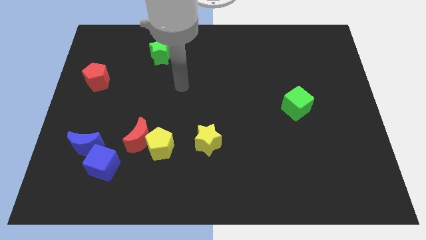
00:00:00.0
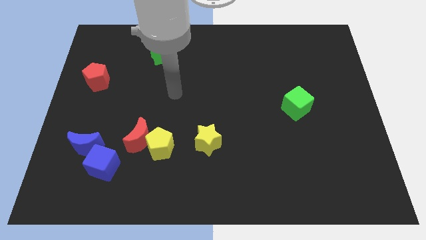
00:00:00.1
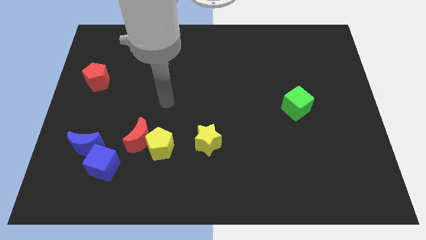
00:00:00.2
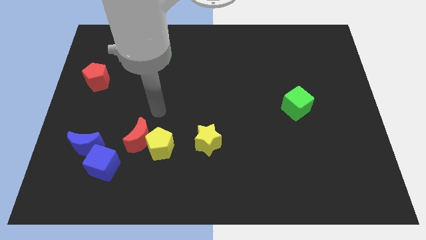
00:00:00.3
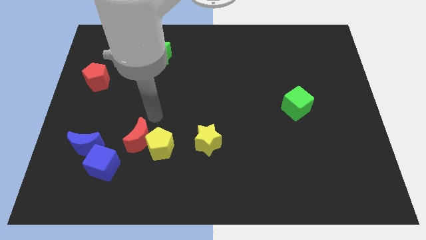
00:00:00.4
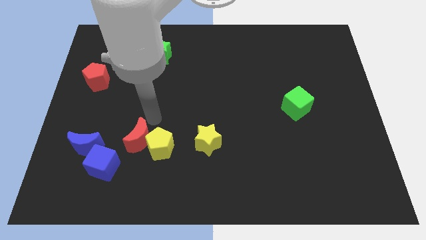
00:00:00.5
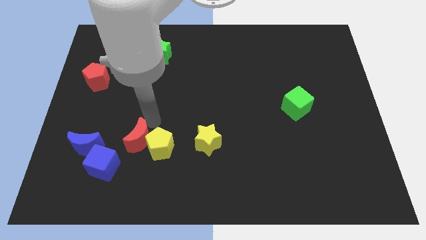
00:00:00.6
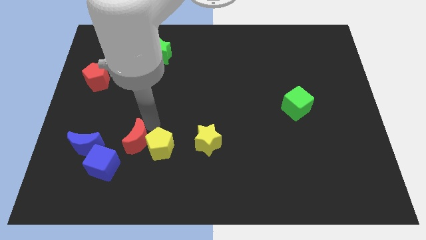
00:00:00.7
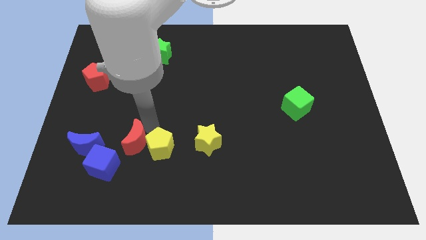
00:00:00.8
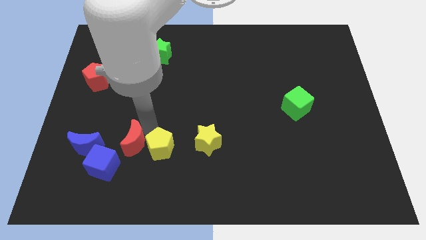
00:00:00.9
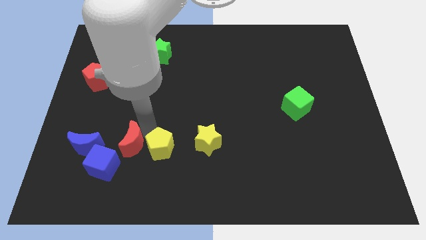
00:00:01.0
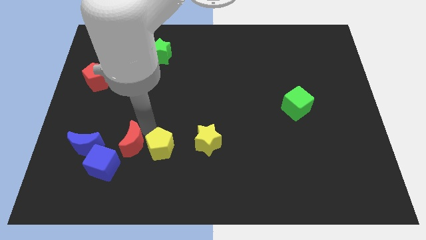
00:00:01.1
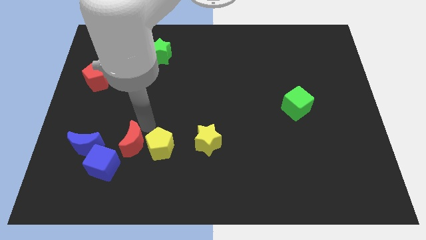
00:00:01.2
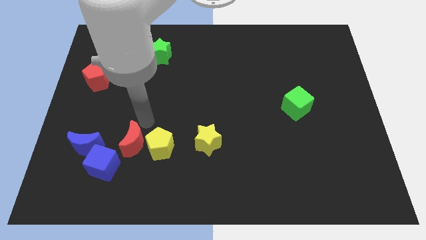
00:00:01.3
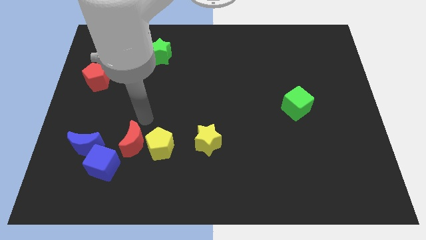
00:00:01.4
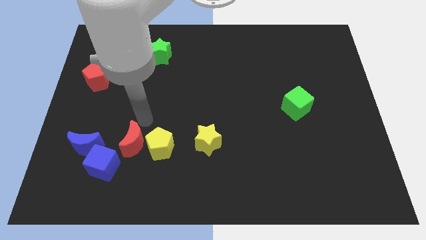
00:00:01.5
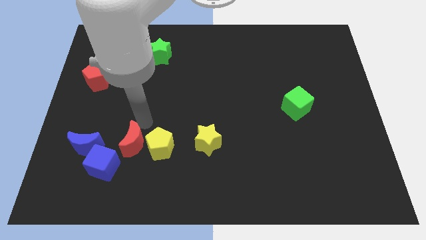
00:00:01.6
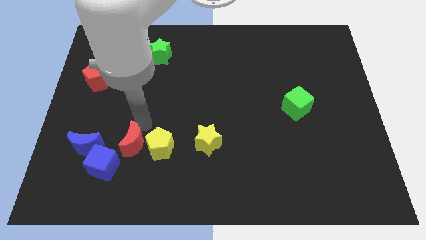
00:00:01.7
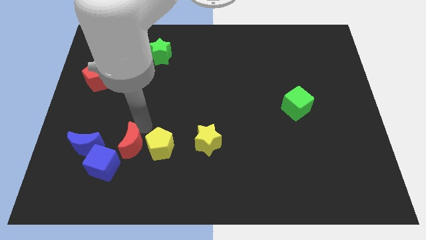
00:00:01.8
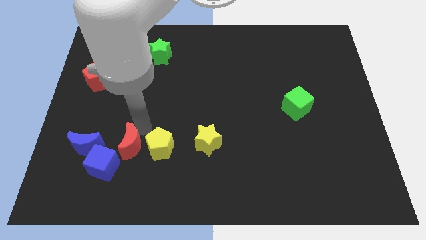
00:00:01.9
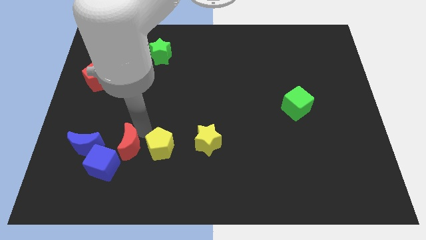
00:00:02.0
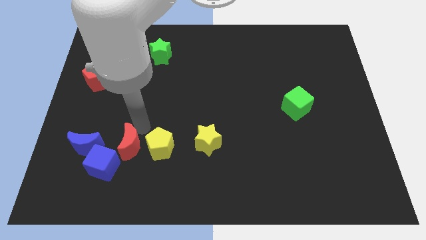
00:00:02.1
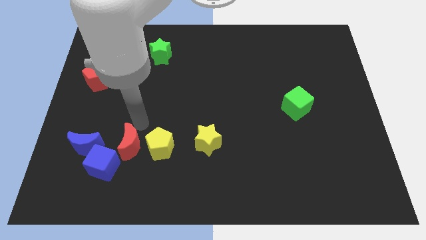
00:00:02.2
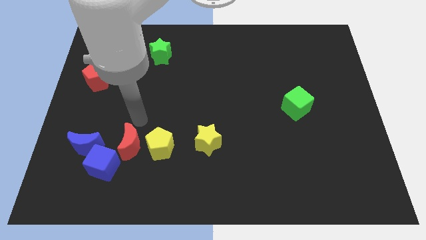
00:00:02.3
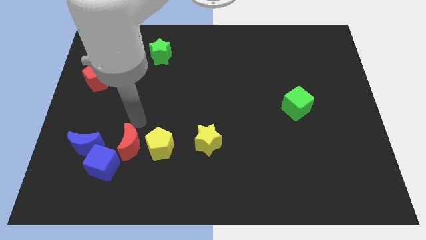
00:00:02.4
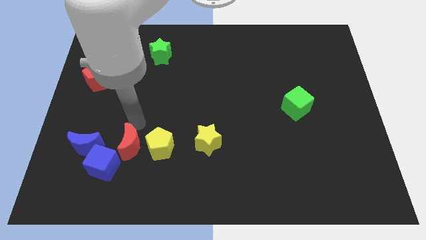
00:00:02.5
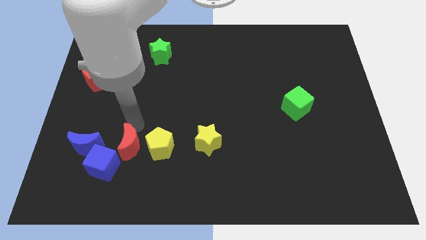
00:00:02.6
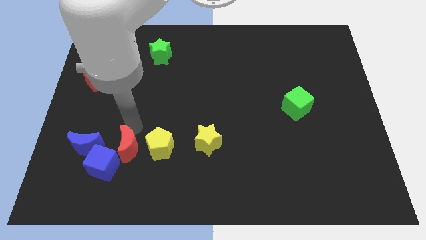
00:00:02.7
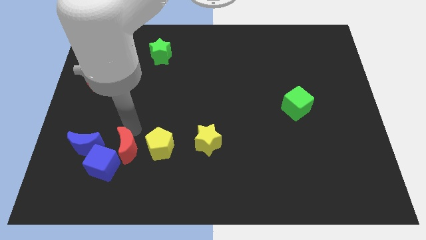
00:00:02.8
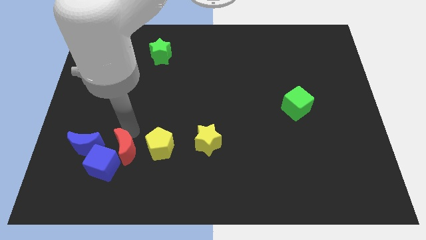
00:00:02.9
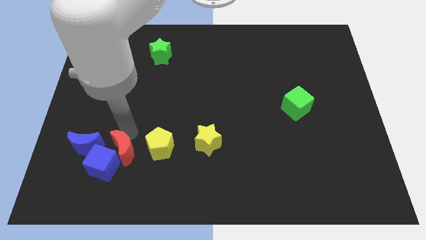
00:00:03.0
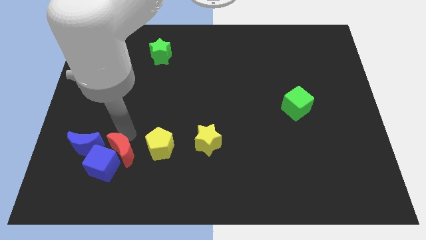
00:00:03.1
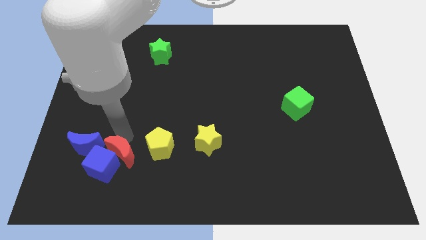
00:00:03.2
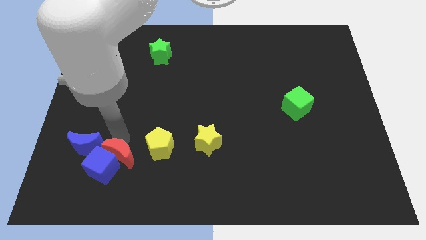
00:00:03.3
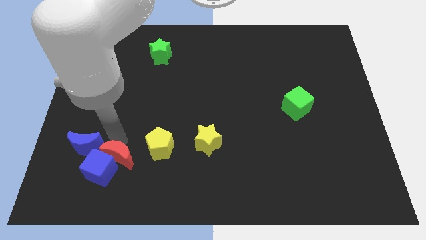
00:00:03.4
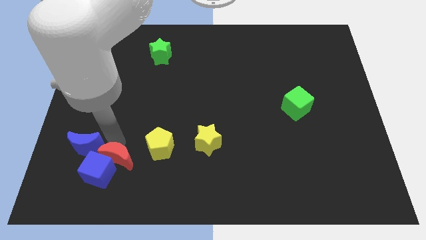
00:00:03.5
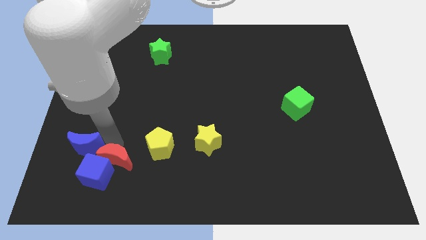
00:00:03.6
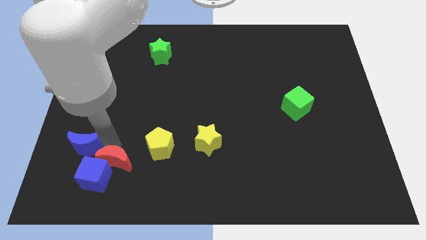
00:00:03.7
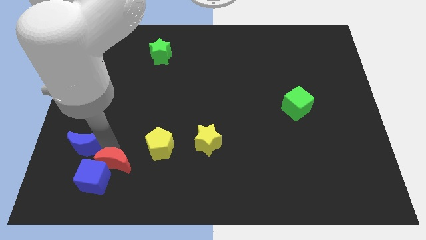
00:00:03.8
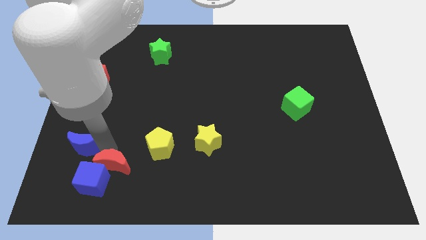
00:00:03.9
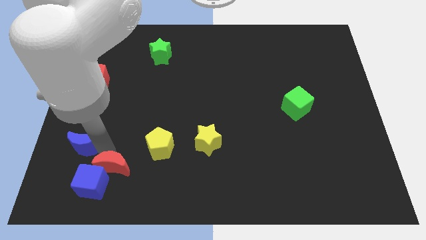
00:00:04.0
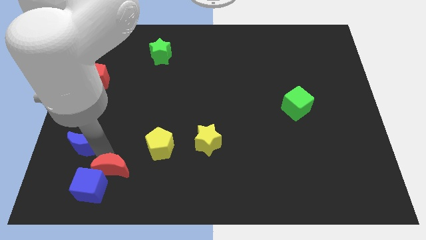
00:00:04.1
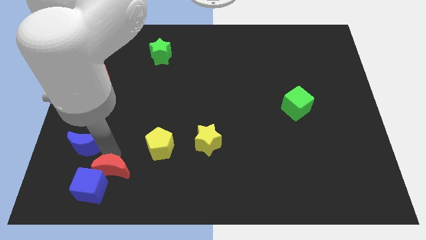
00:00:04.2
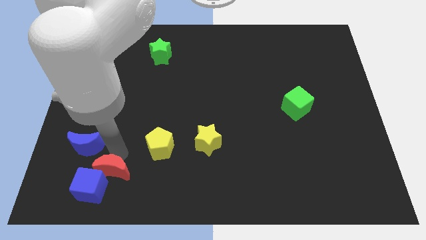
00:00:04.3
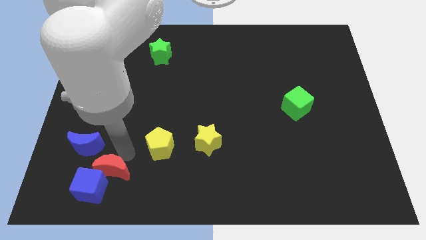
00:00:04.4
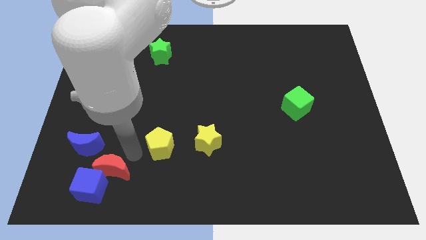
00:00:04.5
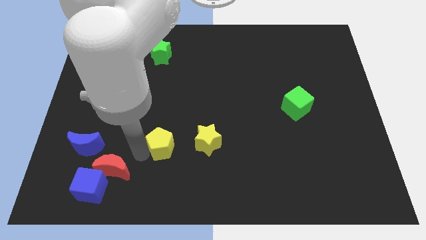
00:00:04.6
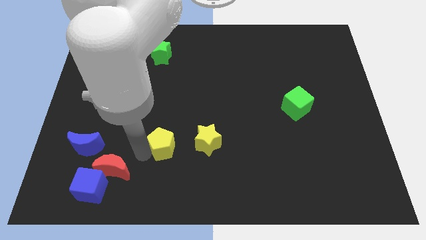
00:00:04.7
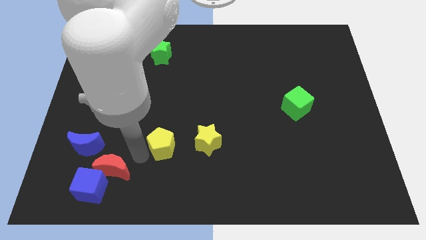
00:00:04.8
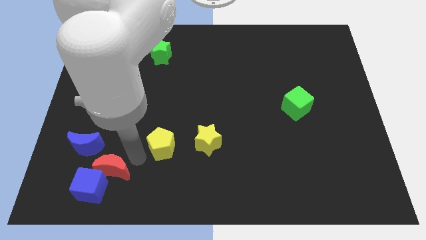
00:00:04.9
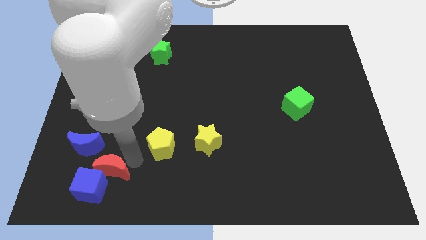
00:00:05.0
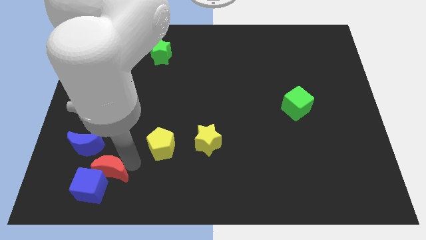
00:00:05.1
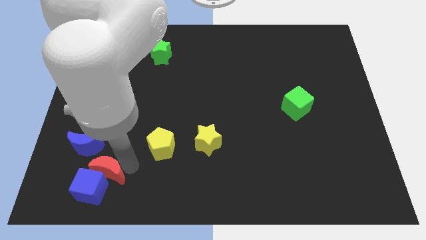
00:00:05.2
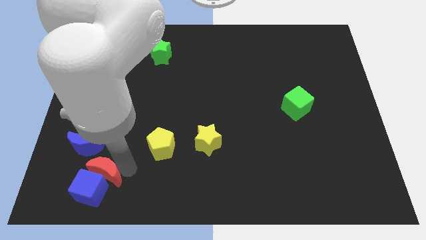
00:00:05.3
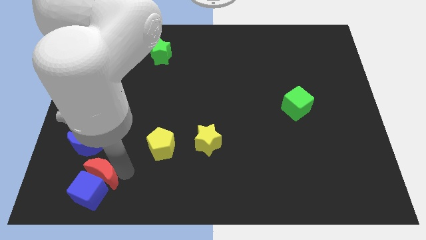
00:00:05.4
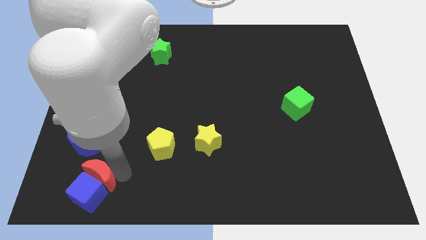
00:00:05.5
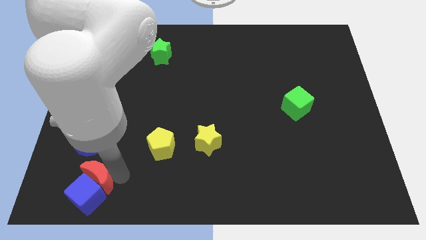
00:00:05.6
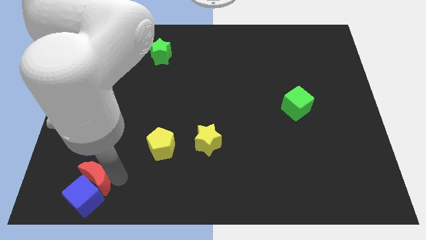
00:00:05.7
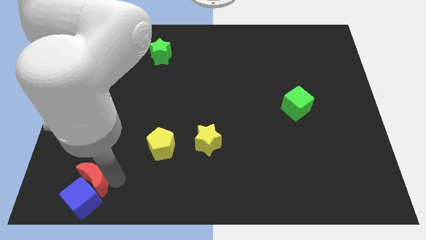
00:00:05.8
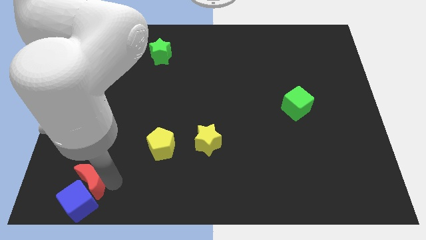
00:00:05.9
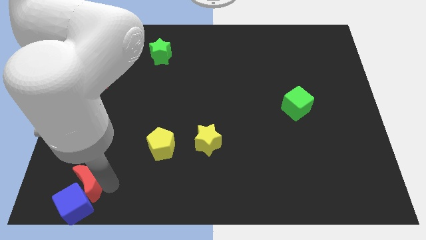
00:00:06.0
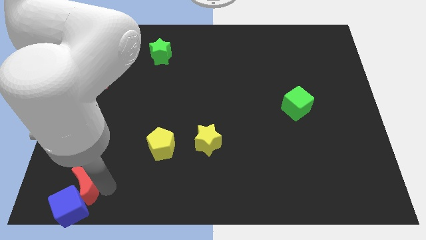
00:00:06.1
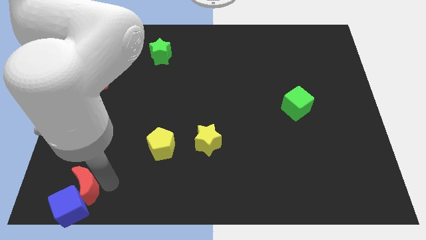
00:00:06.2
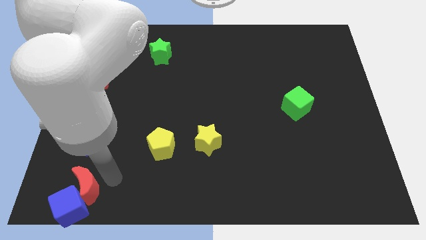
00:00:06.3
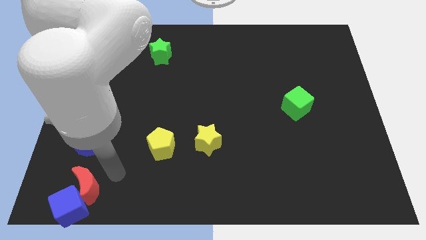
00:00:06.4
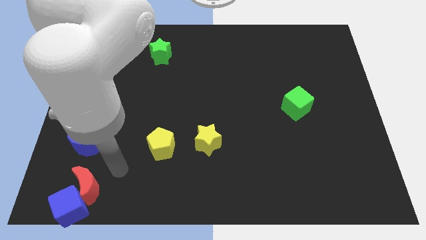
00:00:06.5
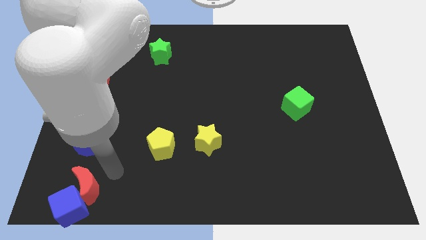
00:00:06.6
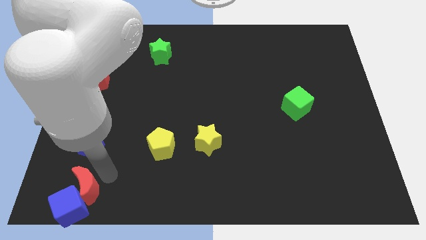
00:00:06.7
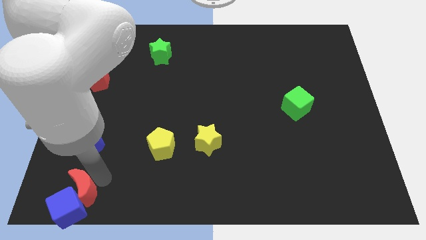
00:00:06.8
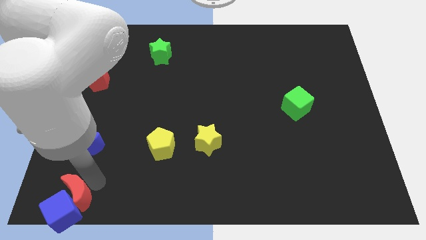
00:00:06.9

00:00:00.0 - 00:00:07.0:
slide the red moon to the bottom left corner
